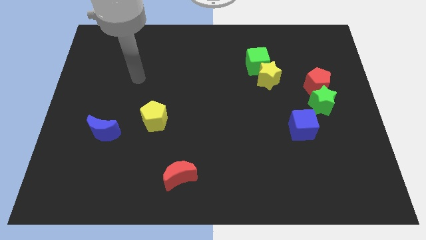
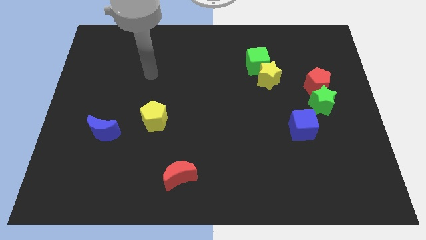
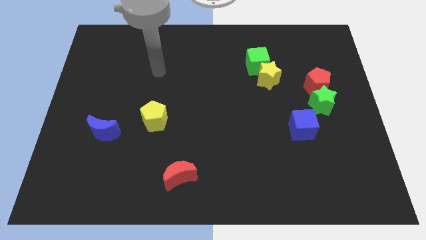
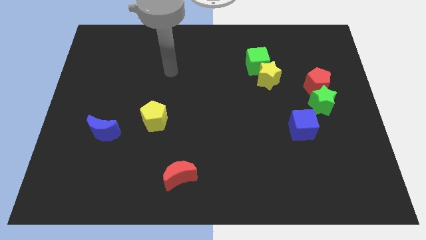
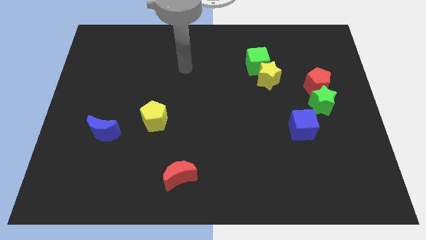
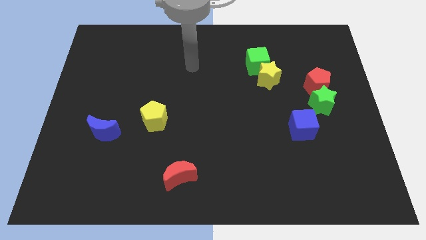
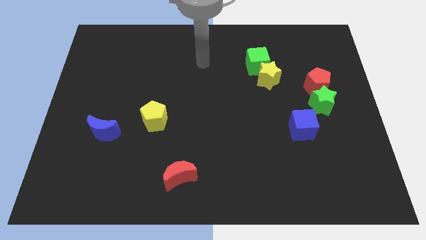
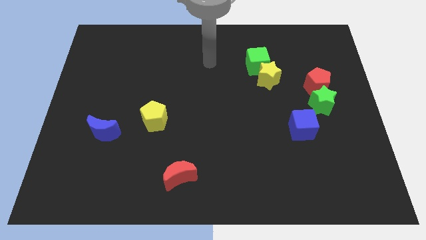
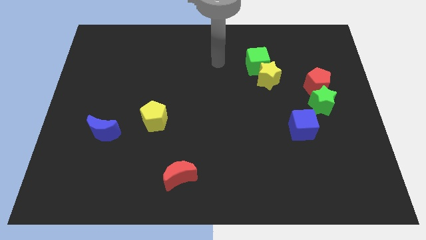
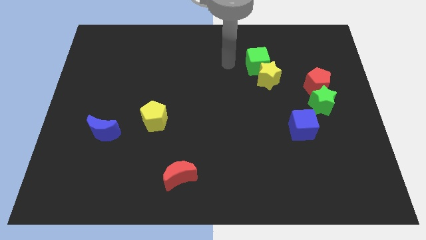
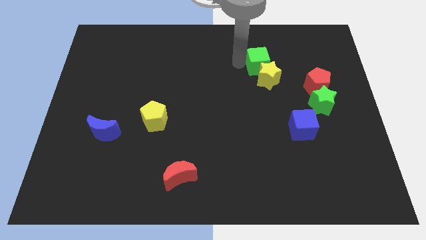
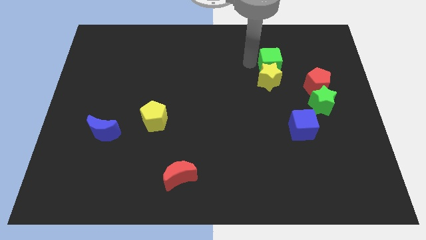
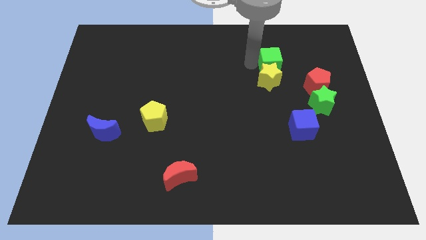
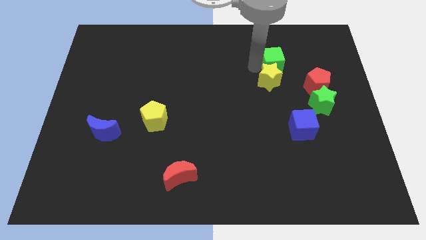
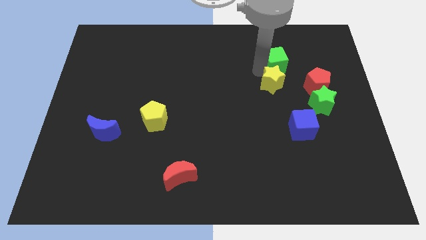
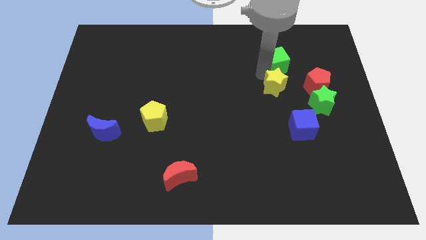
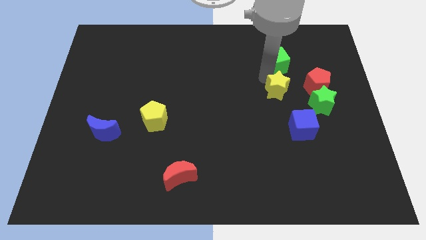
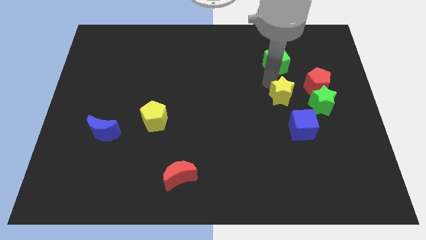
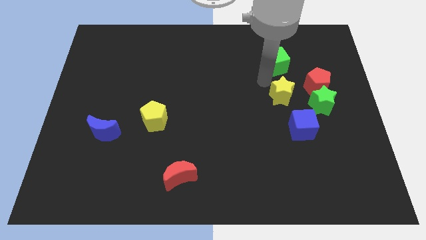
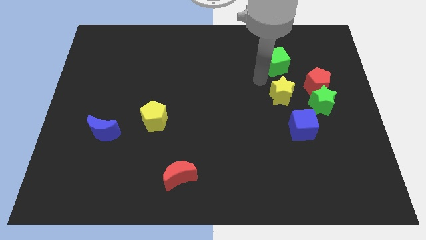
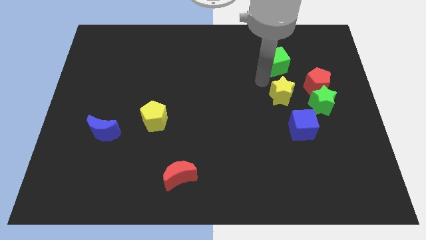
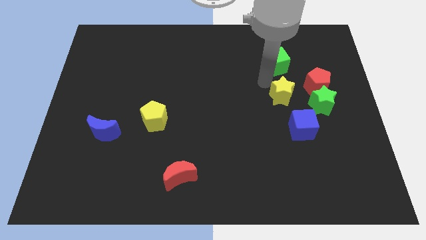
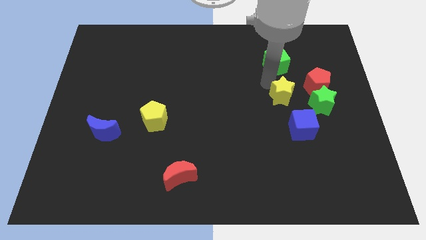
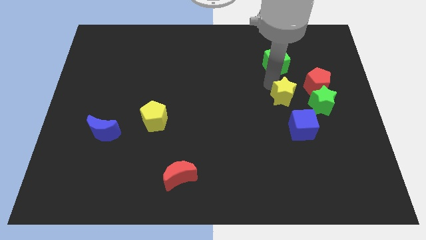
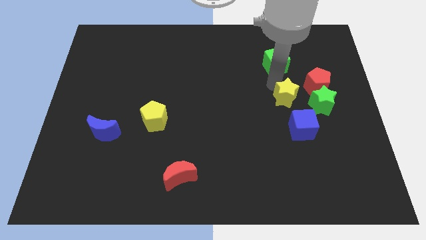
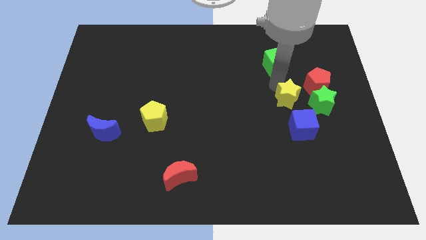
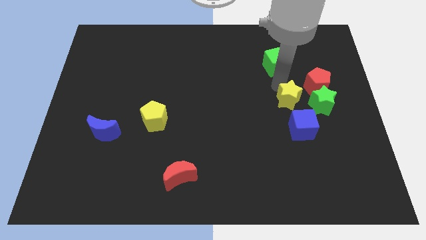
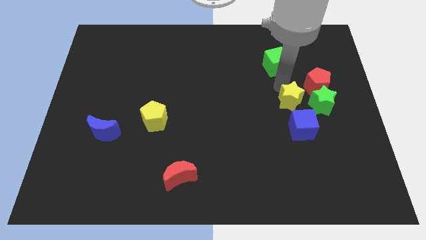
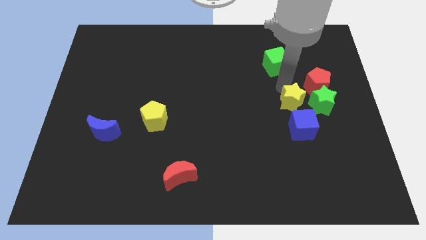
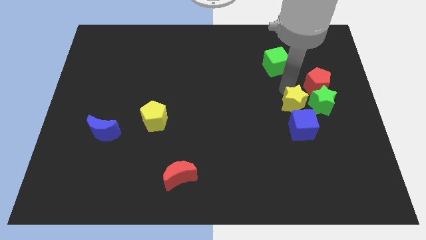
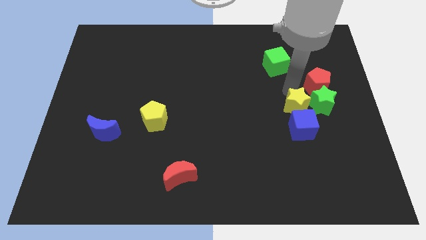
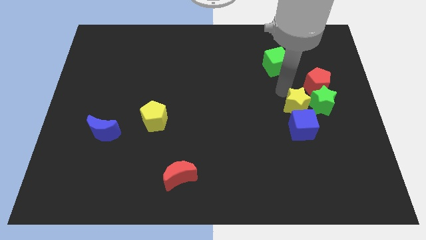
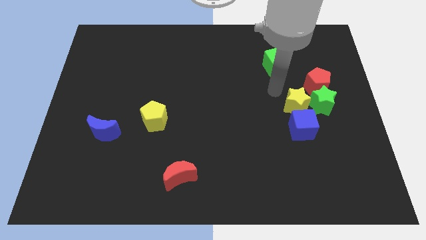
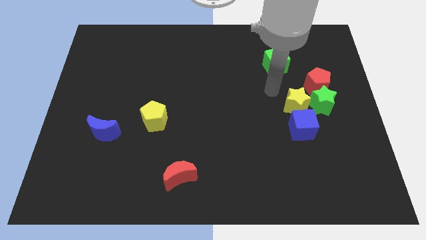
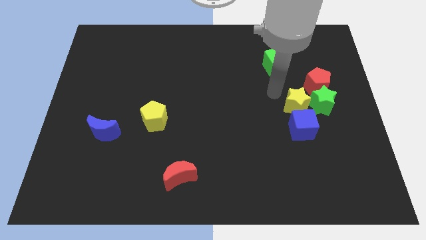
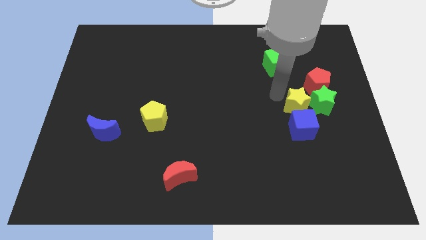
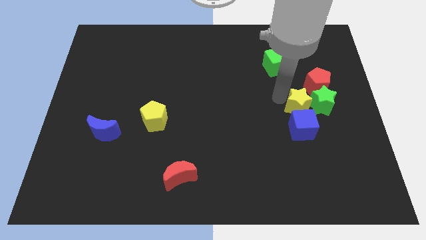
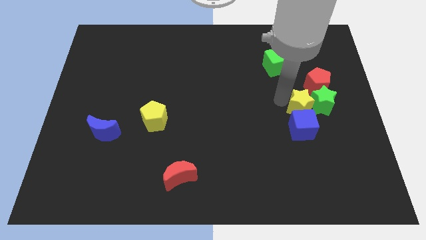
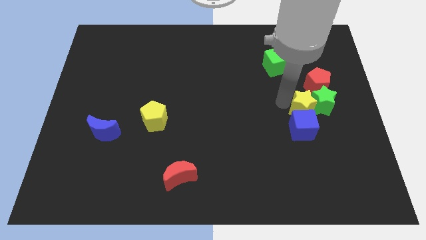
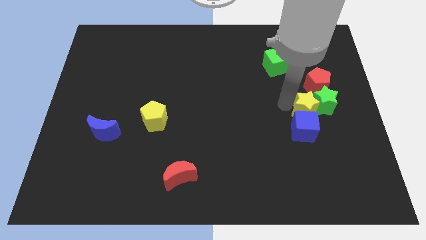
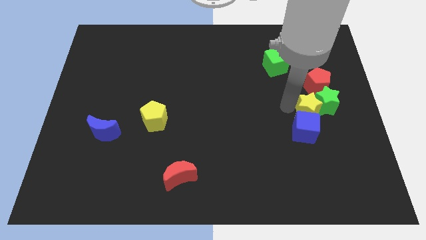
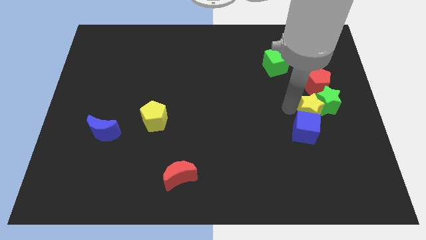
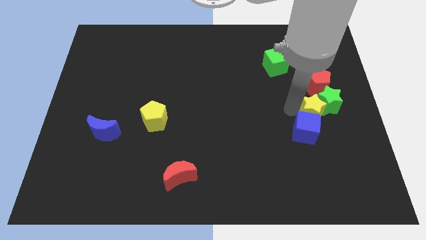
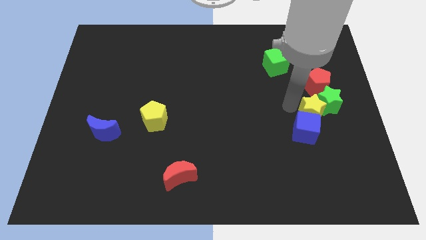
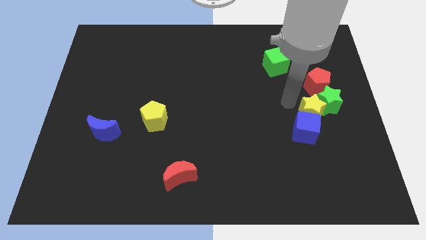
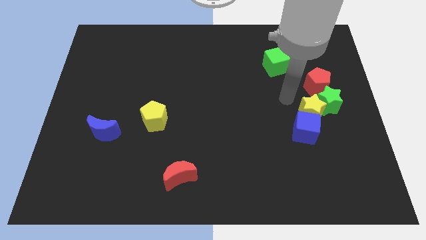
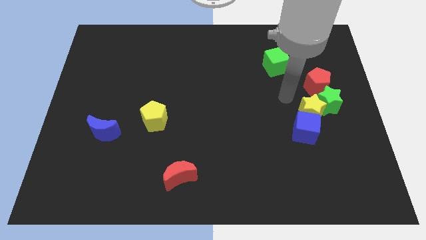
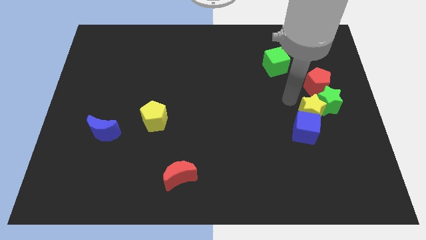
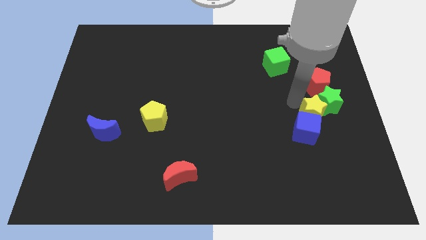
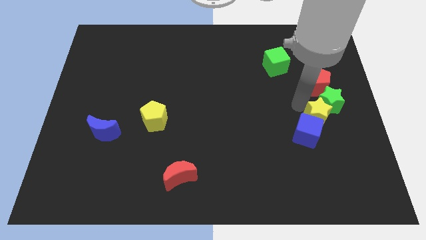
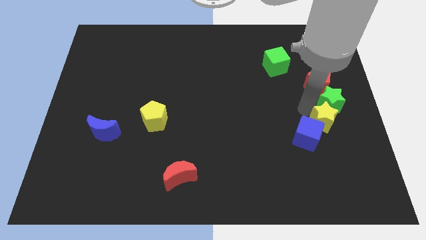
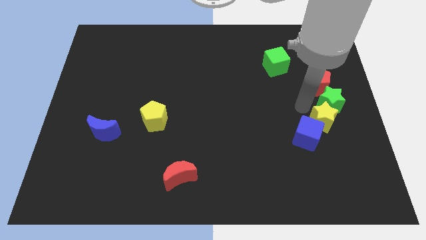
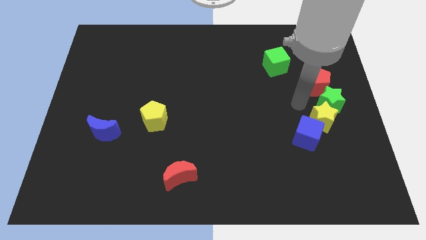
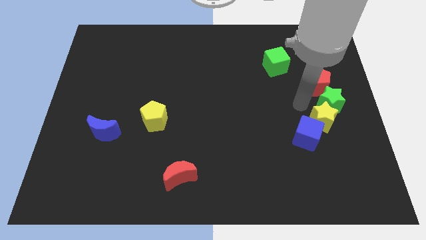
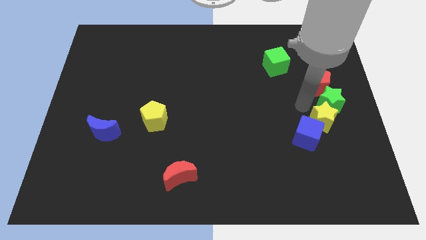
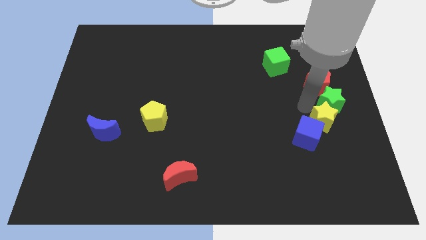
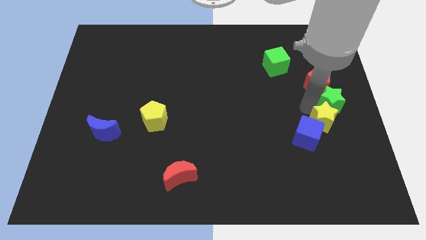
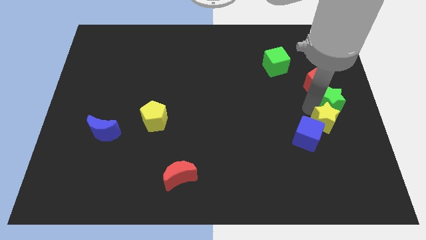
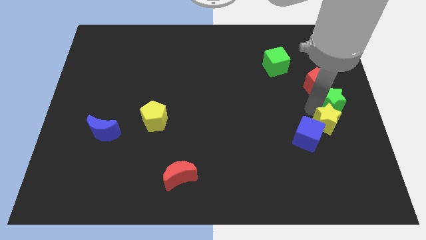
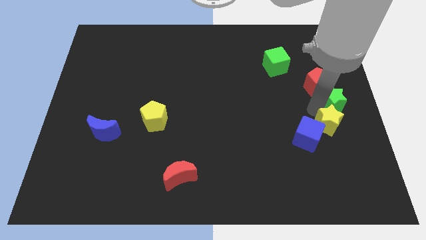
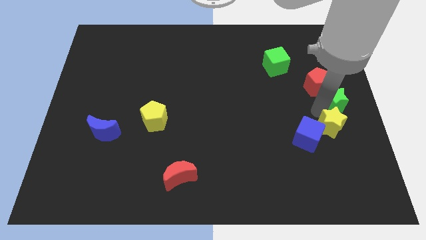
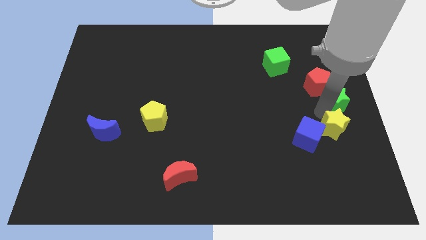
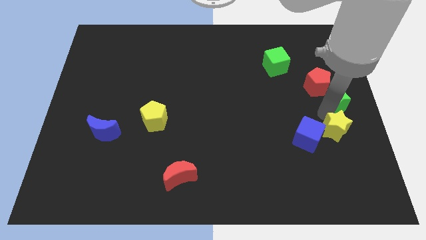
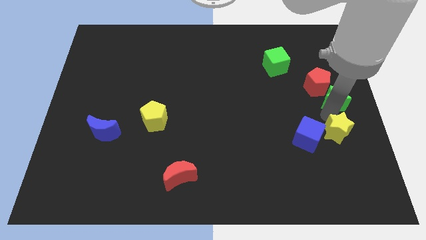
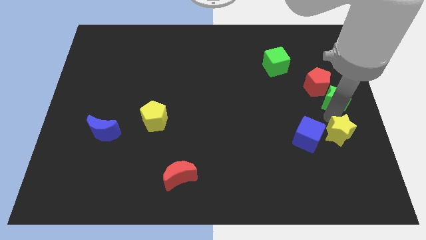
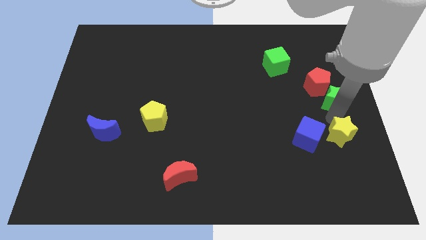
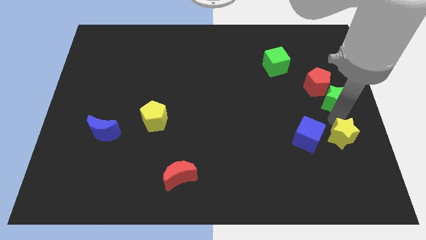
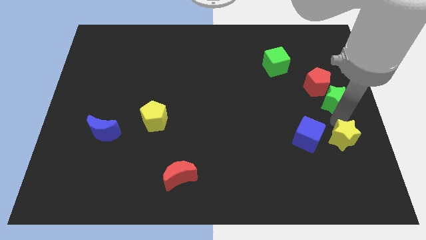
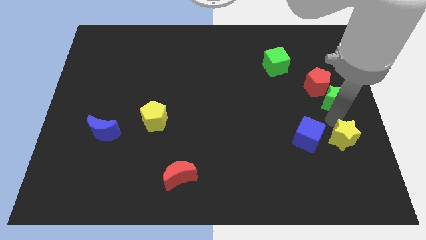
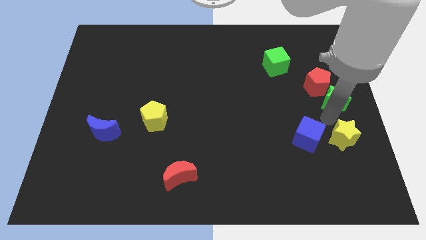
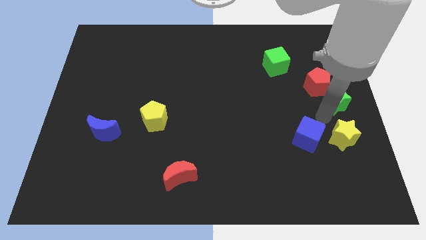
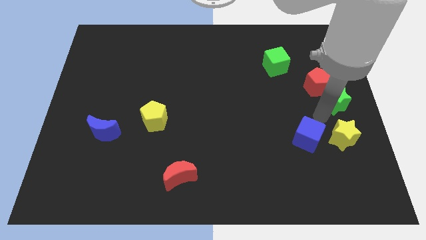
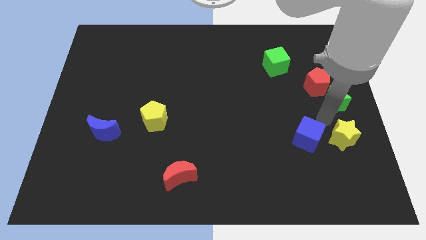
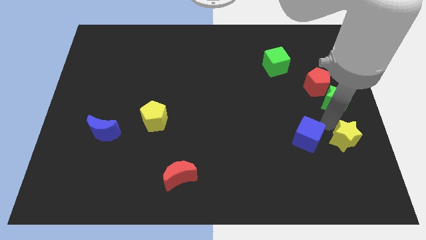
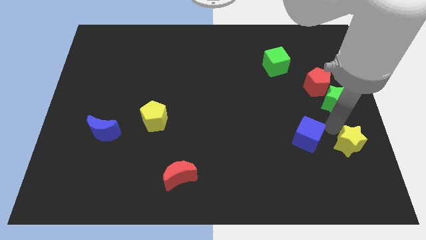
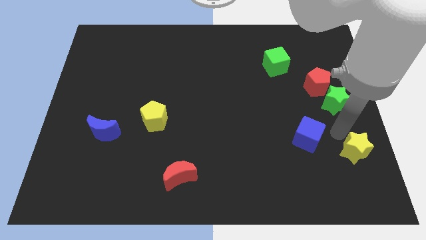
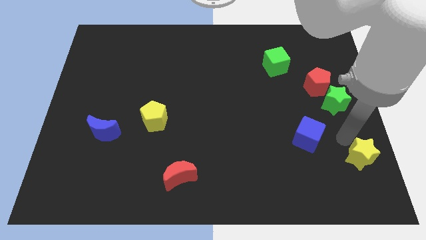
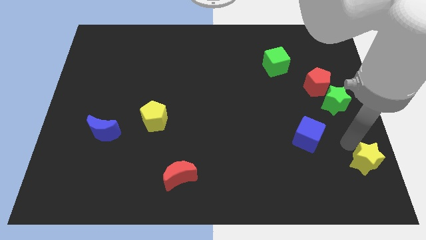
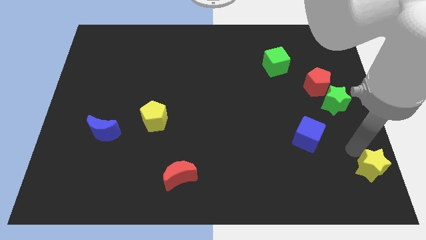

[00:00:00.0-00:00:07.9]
slide the yellow star to the bottom right corner
